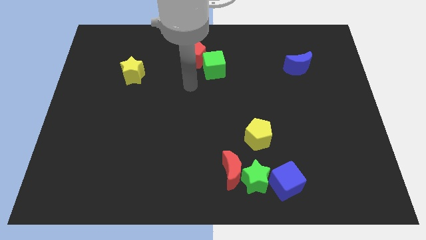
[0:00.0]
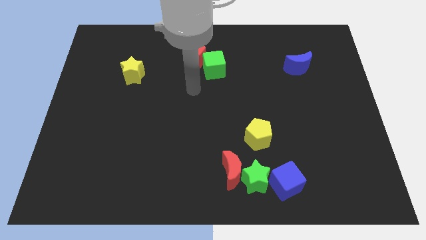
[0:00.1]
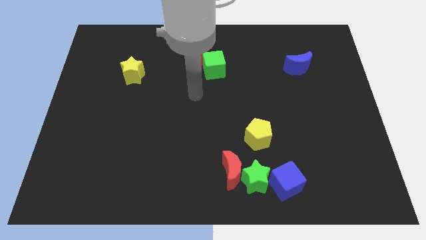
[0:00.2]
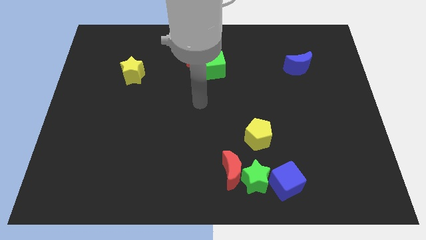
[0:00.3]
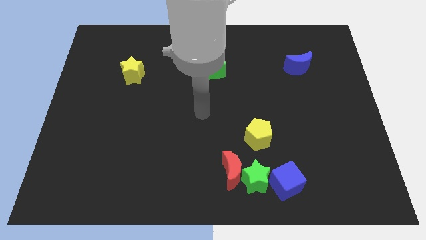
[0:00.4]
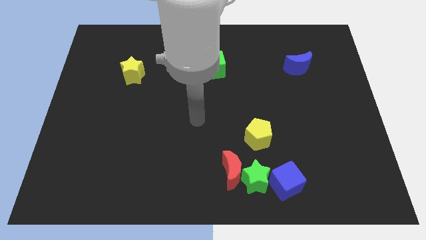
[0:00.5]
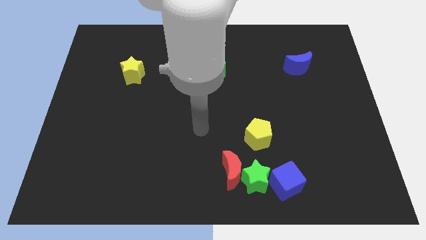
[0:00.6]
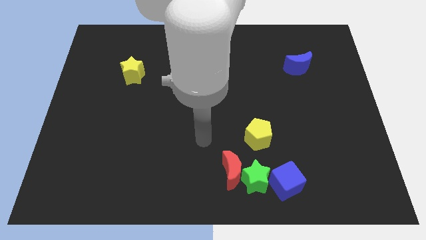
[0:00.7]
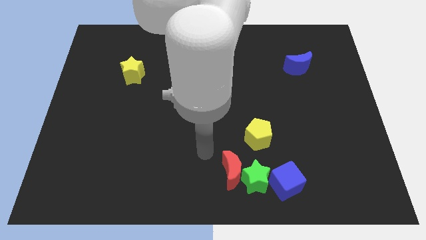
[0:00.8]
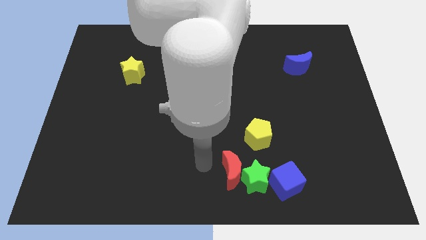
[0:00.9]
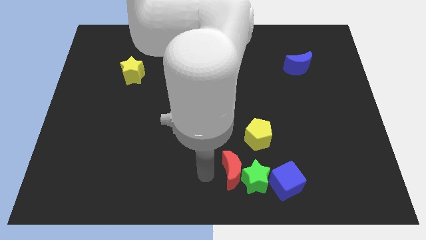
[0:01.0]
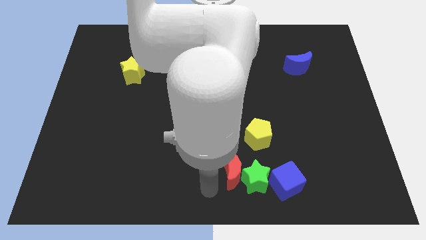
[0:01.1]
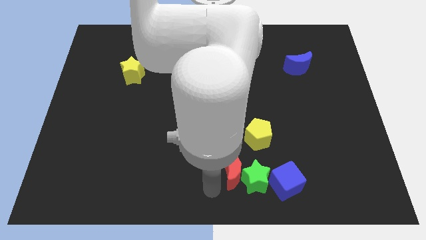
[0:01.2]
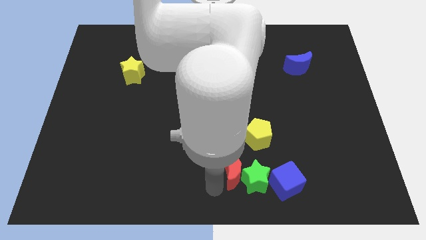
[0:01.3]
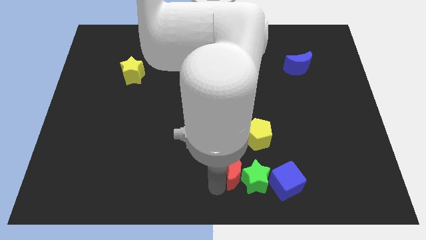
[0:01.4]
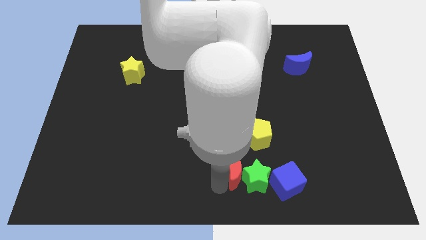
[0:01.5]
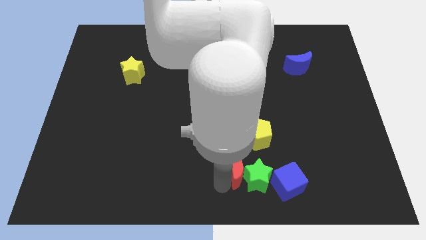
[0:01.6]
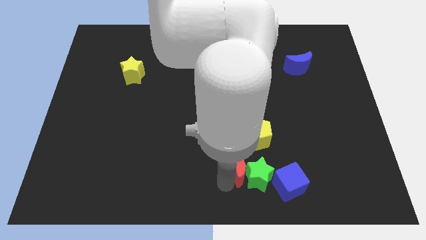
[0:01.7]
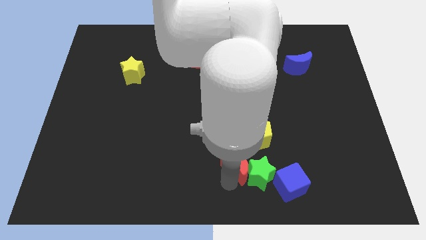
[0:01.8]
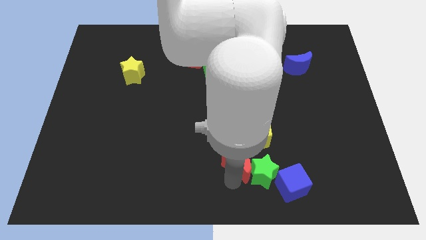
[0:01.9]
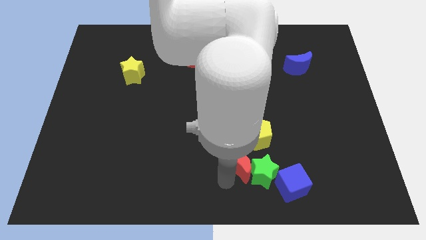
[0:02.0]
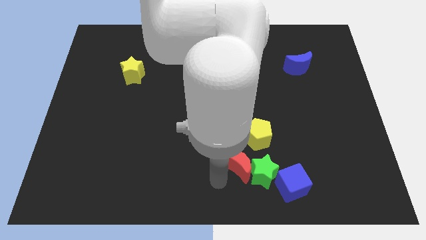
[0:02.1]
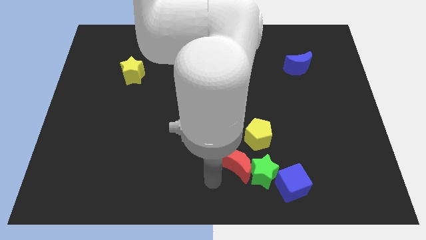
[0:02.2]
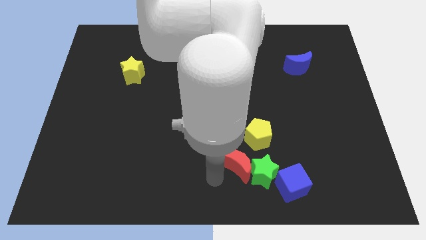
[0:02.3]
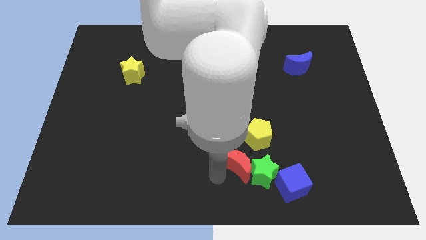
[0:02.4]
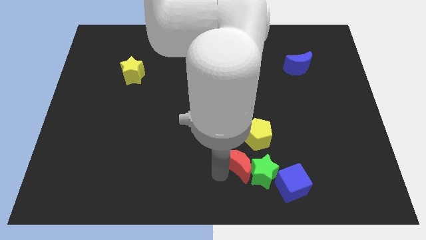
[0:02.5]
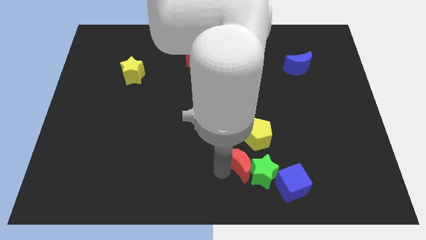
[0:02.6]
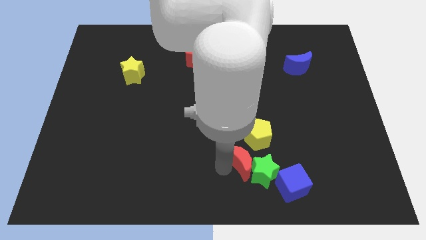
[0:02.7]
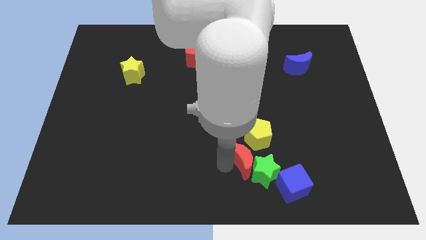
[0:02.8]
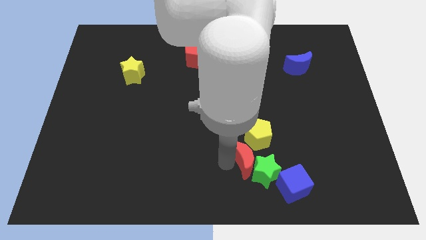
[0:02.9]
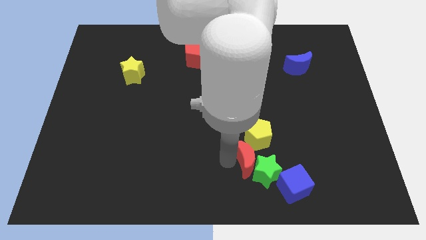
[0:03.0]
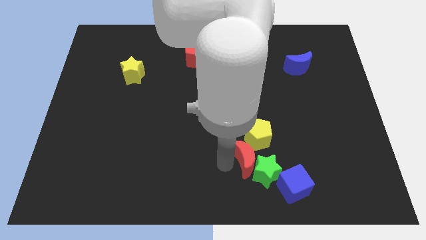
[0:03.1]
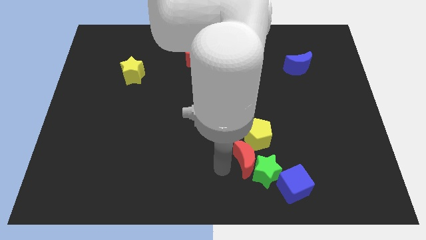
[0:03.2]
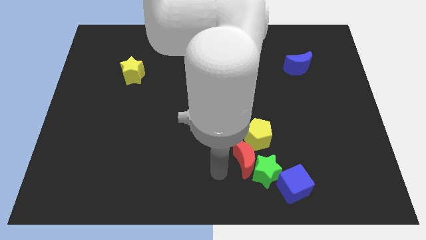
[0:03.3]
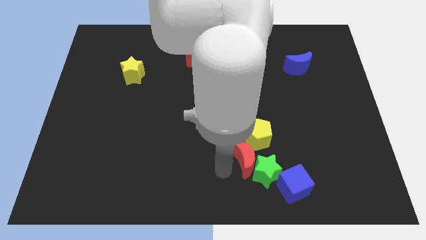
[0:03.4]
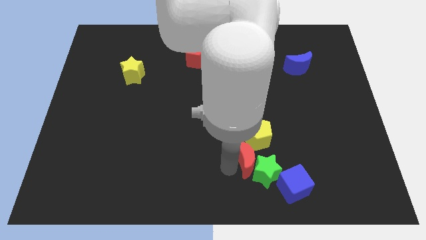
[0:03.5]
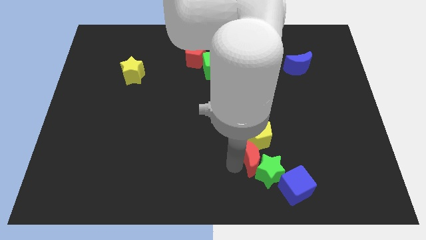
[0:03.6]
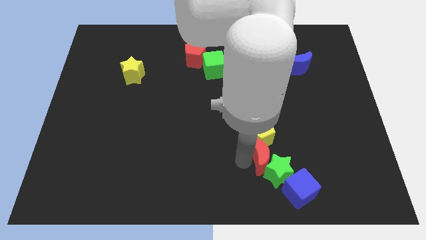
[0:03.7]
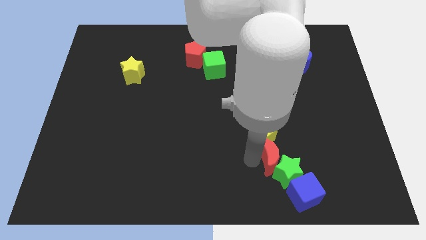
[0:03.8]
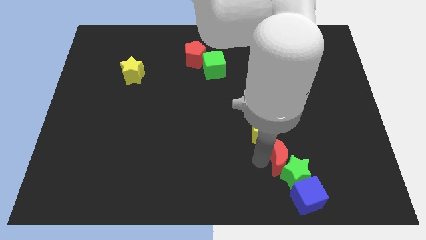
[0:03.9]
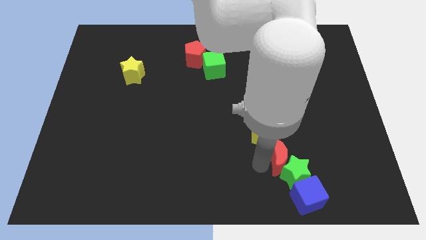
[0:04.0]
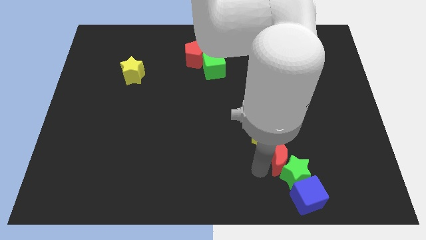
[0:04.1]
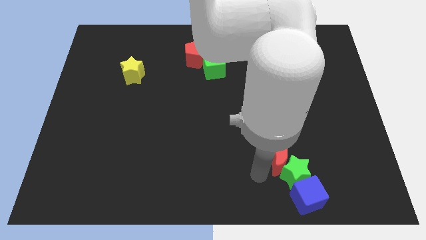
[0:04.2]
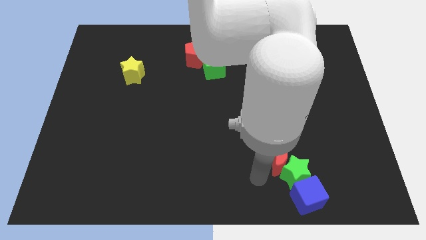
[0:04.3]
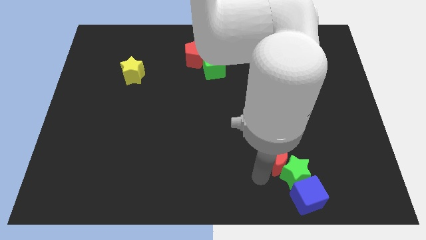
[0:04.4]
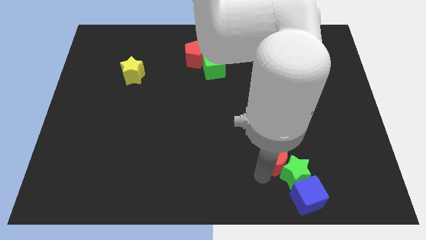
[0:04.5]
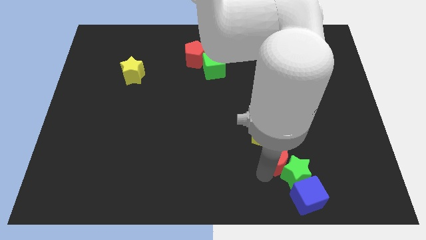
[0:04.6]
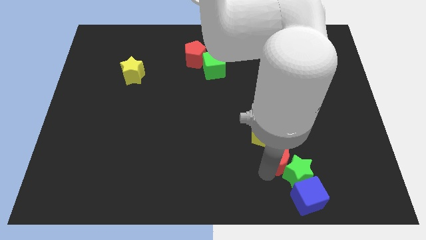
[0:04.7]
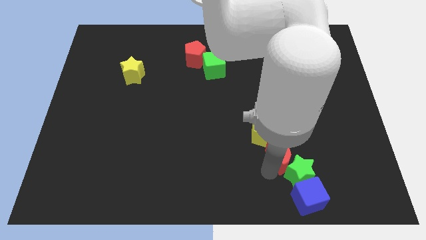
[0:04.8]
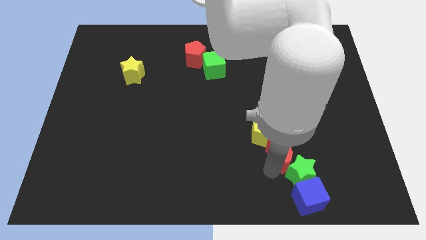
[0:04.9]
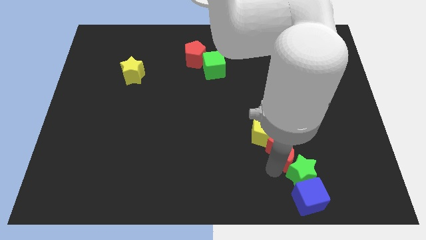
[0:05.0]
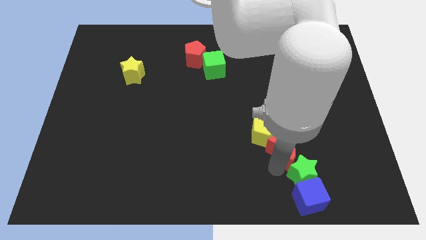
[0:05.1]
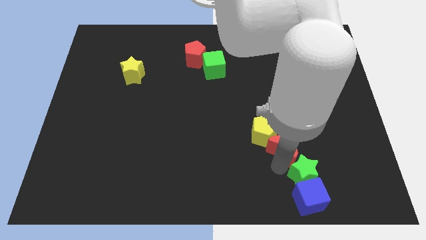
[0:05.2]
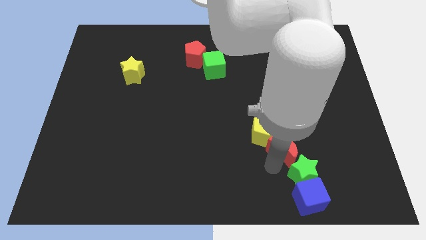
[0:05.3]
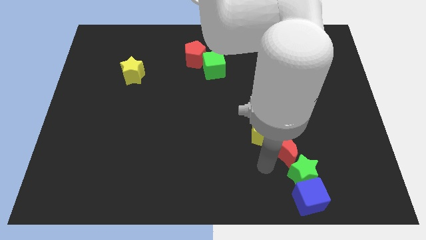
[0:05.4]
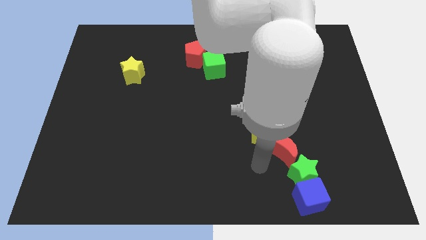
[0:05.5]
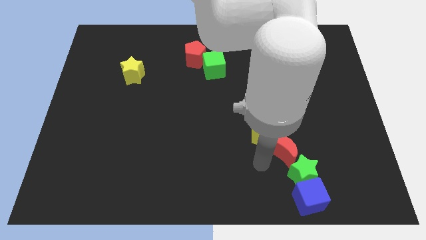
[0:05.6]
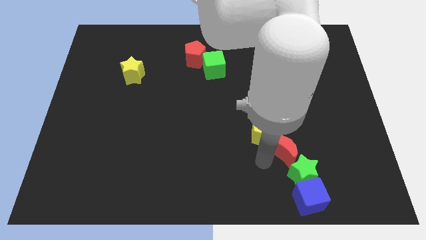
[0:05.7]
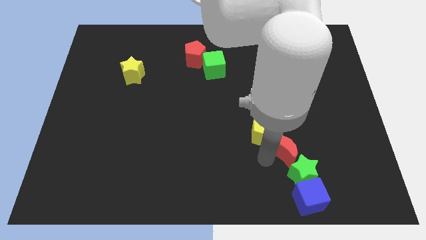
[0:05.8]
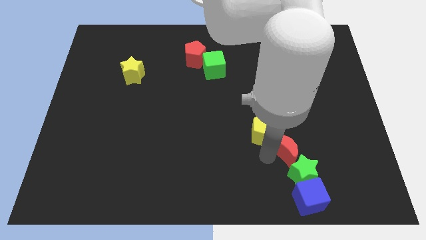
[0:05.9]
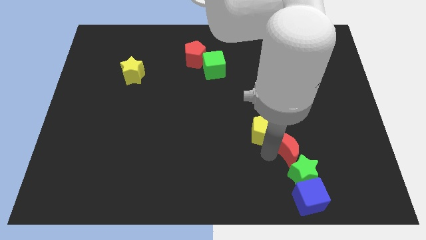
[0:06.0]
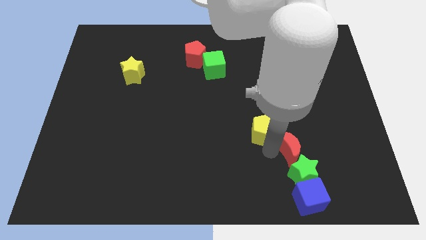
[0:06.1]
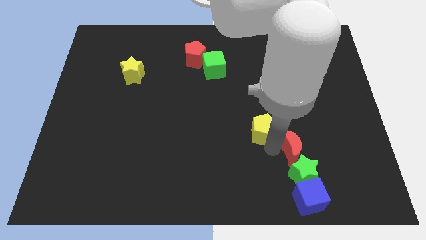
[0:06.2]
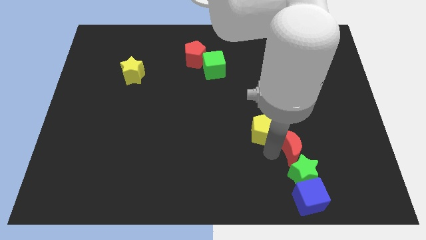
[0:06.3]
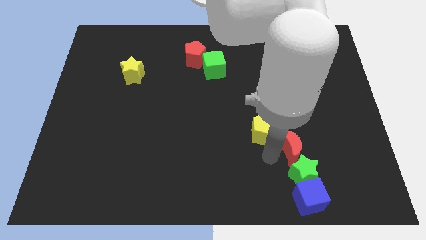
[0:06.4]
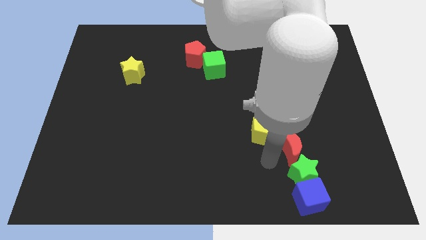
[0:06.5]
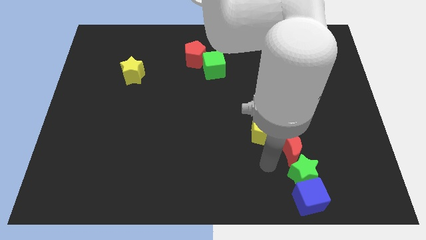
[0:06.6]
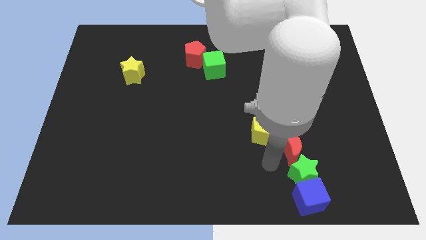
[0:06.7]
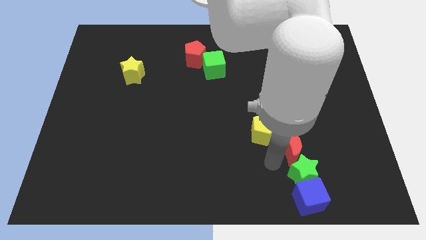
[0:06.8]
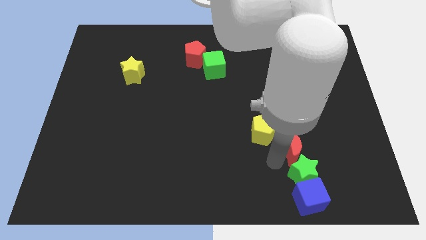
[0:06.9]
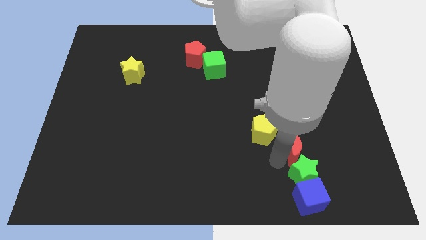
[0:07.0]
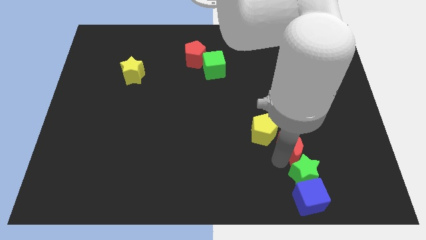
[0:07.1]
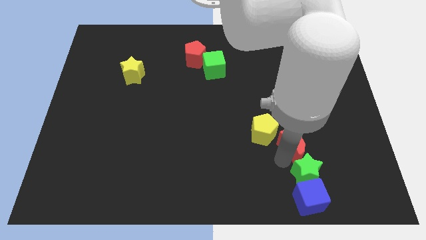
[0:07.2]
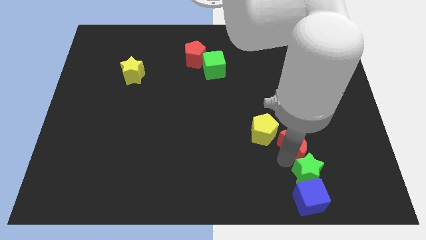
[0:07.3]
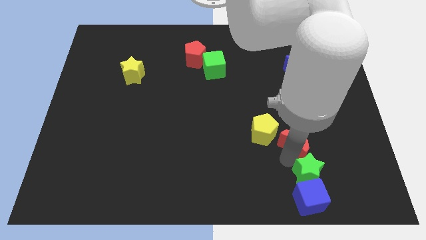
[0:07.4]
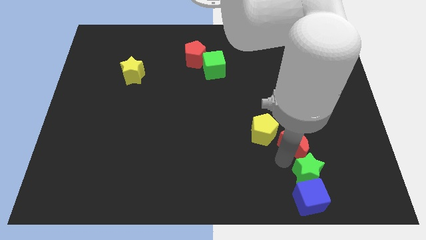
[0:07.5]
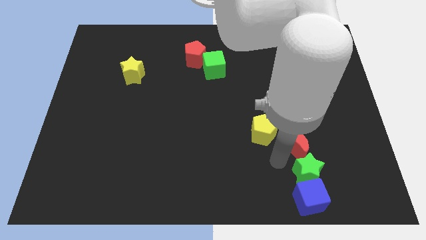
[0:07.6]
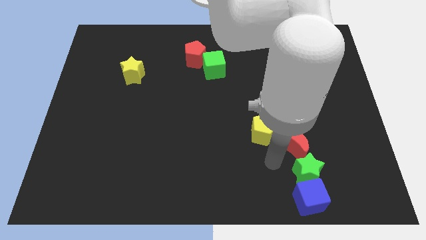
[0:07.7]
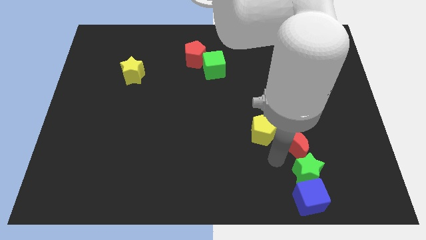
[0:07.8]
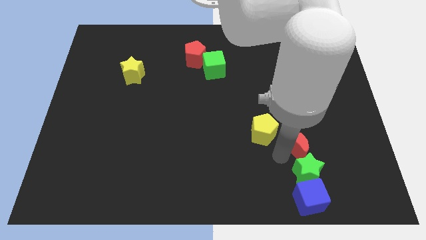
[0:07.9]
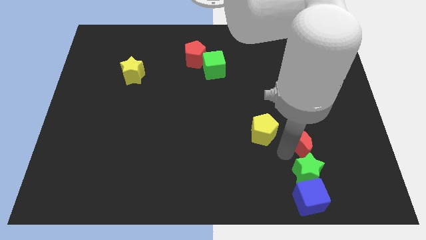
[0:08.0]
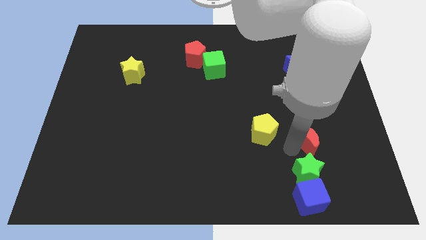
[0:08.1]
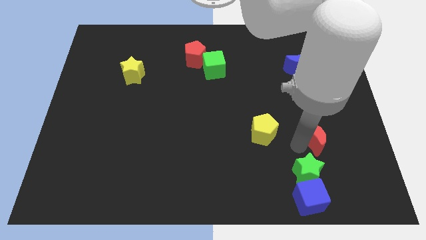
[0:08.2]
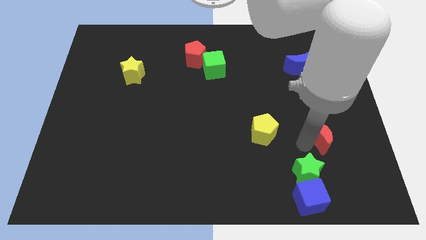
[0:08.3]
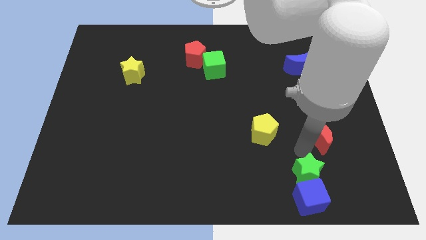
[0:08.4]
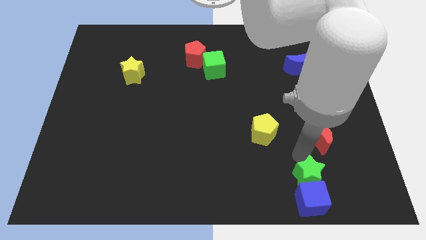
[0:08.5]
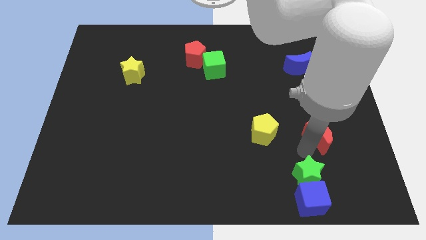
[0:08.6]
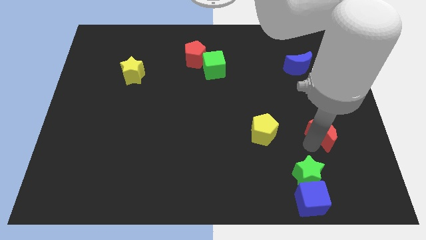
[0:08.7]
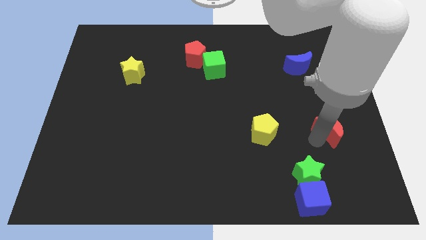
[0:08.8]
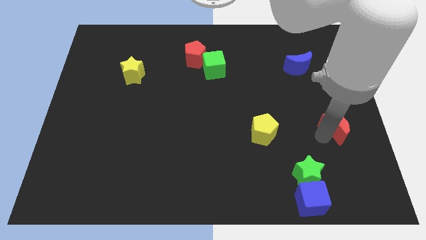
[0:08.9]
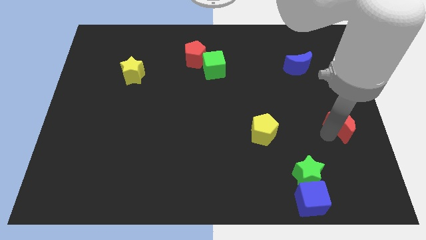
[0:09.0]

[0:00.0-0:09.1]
push the red moon to the right side of the board
